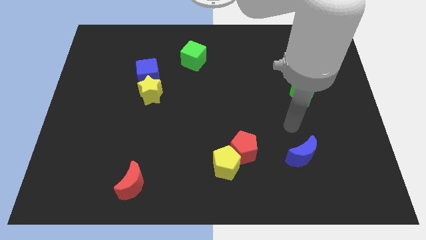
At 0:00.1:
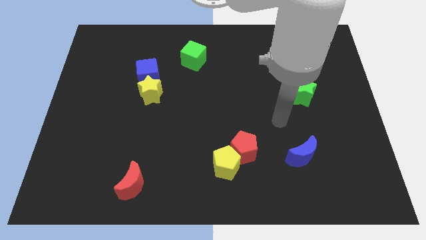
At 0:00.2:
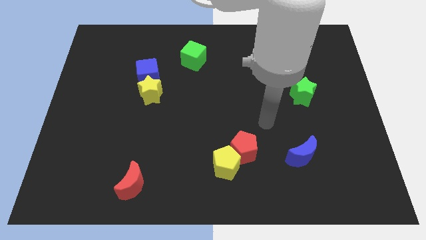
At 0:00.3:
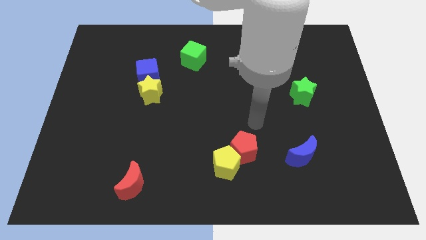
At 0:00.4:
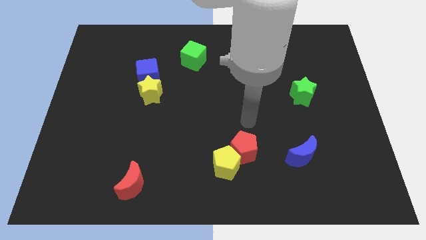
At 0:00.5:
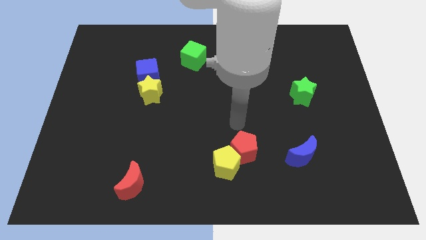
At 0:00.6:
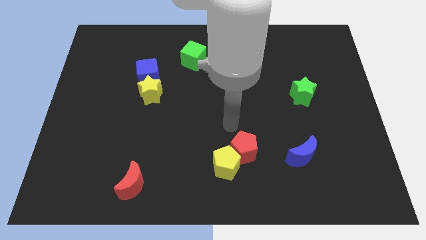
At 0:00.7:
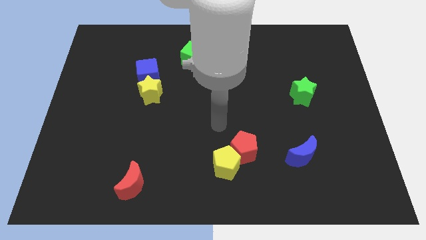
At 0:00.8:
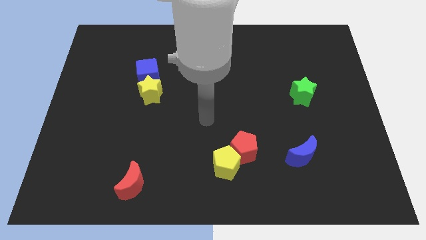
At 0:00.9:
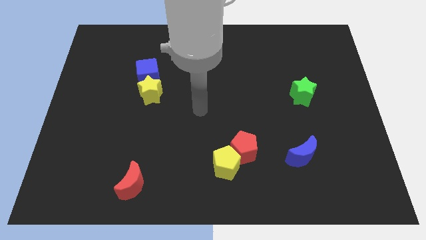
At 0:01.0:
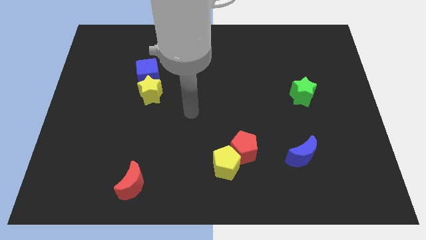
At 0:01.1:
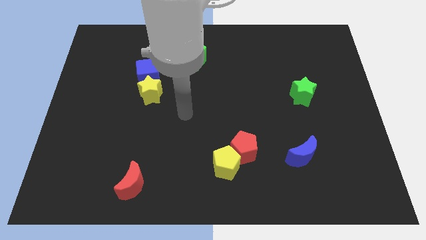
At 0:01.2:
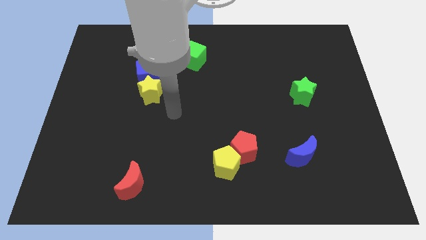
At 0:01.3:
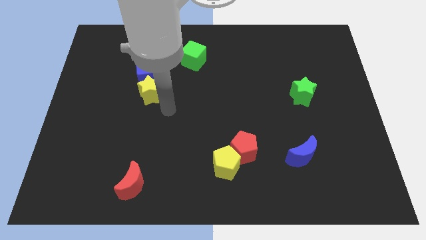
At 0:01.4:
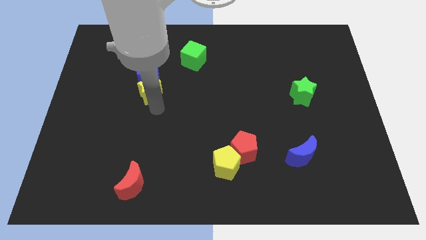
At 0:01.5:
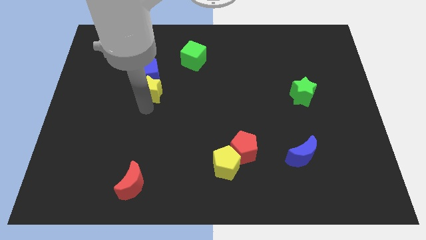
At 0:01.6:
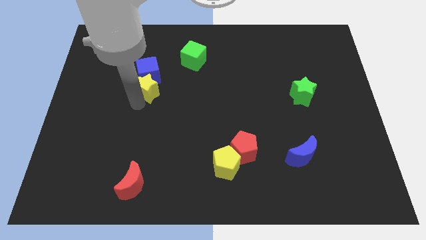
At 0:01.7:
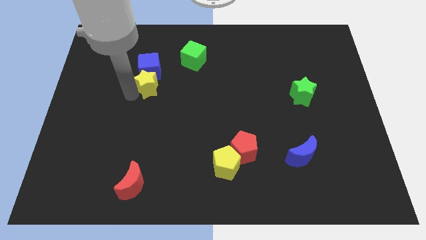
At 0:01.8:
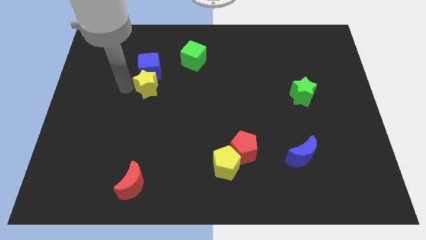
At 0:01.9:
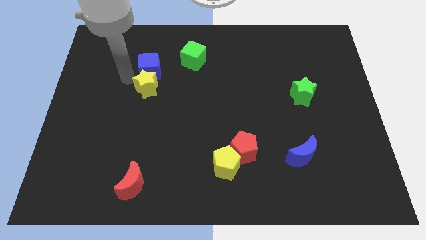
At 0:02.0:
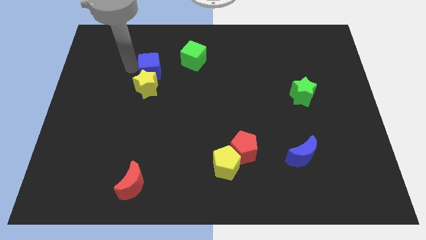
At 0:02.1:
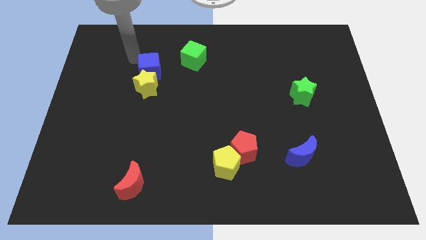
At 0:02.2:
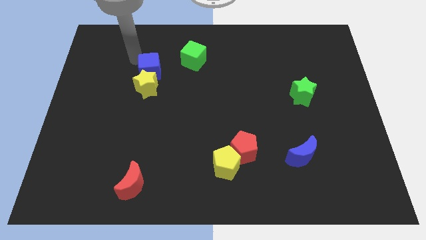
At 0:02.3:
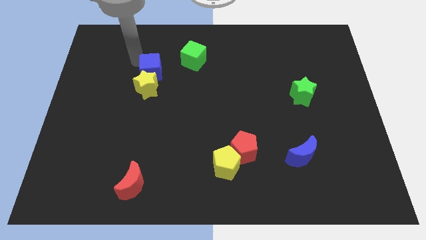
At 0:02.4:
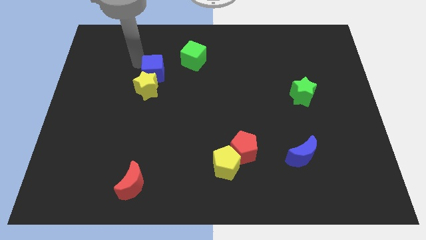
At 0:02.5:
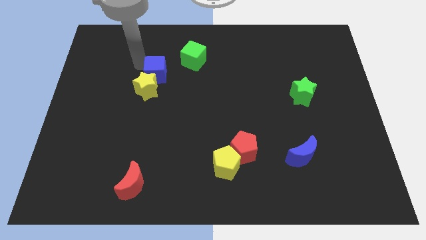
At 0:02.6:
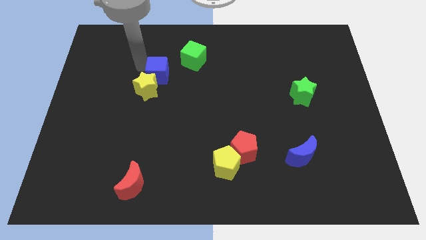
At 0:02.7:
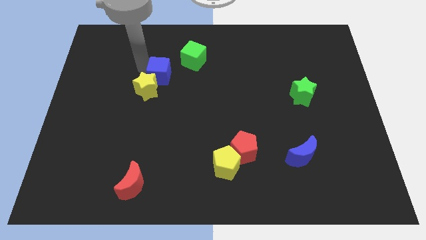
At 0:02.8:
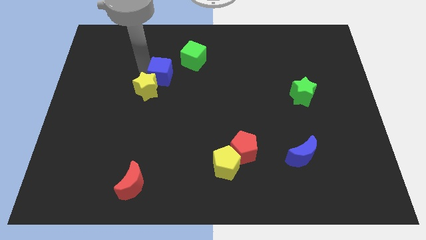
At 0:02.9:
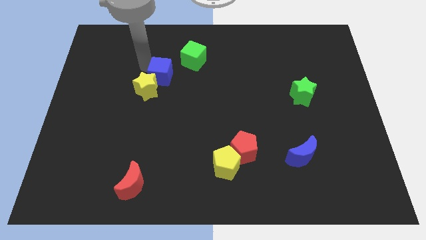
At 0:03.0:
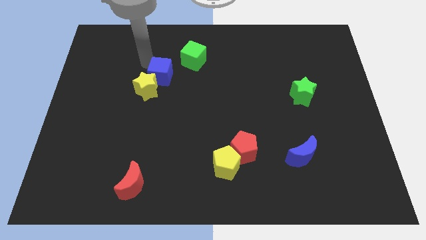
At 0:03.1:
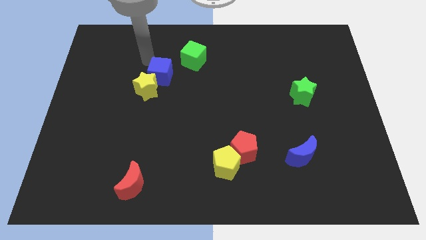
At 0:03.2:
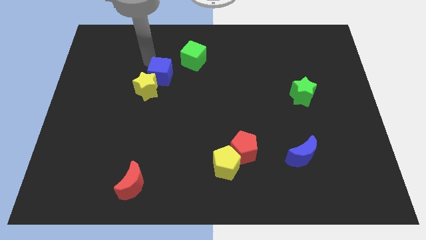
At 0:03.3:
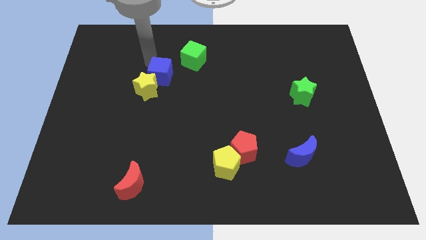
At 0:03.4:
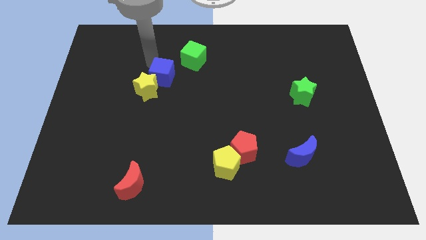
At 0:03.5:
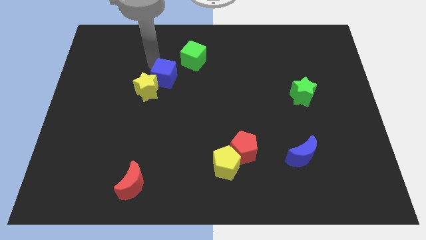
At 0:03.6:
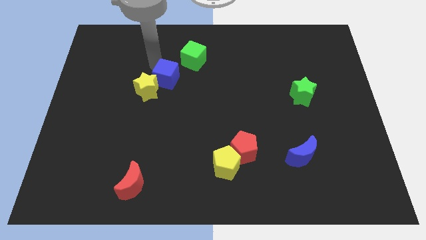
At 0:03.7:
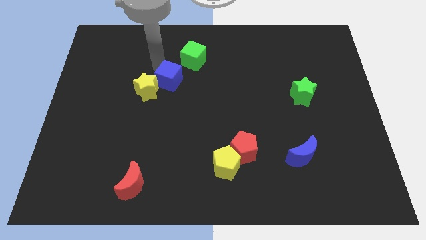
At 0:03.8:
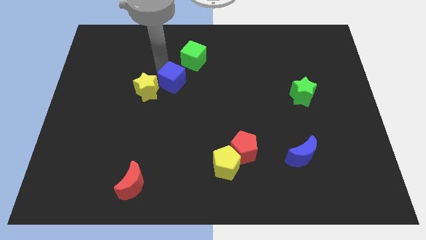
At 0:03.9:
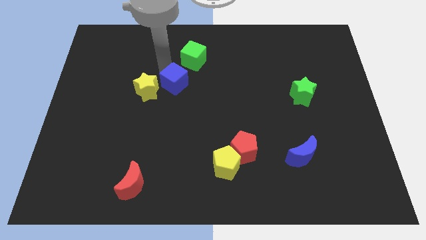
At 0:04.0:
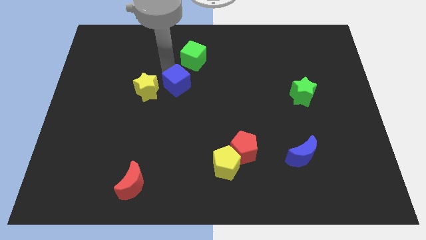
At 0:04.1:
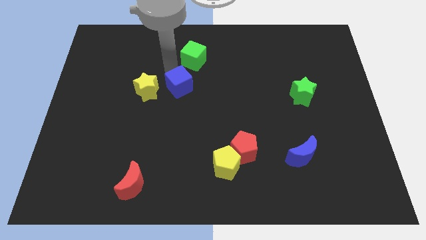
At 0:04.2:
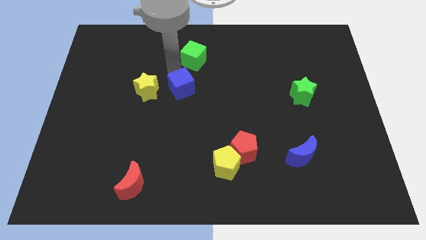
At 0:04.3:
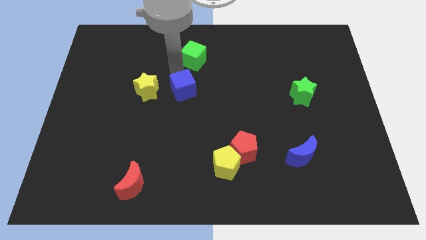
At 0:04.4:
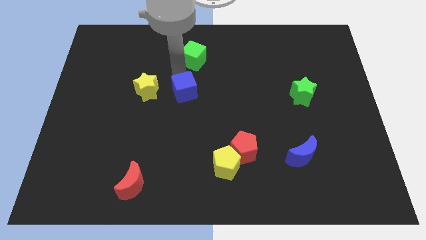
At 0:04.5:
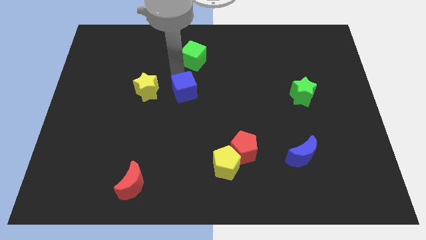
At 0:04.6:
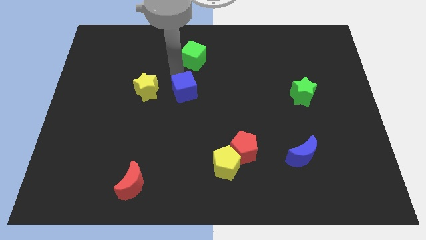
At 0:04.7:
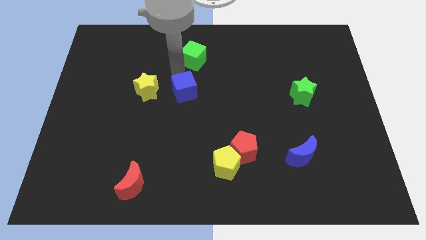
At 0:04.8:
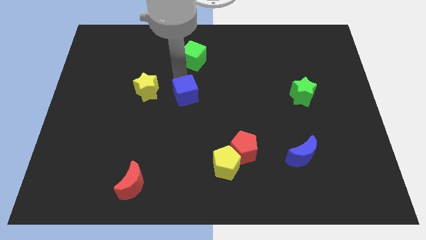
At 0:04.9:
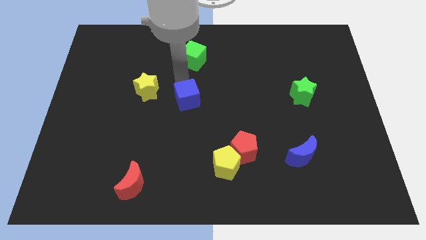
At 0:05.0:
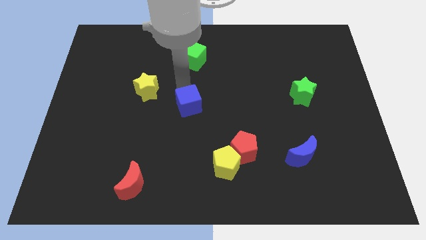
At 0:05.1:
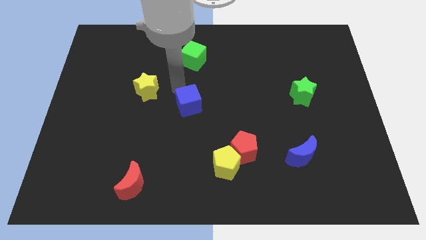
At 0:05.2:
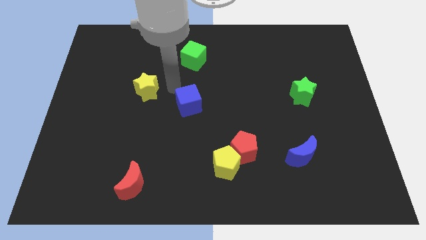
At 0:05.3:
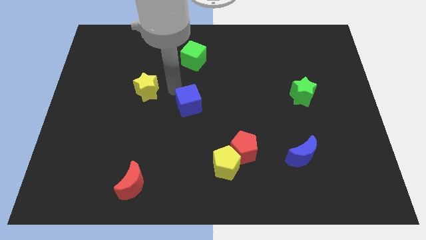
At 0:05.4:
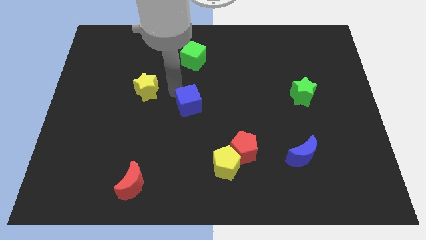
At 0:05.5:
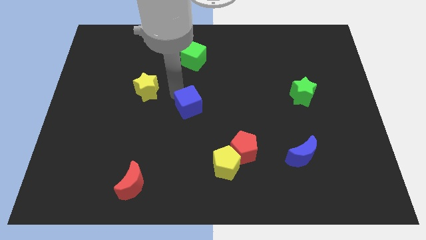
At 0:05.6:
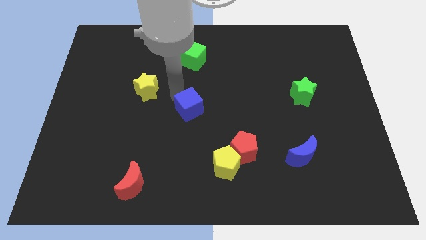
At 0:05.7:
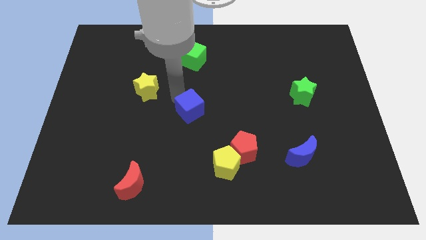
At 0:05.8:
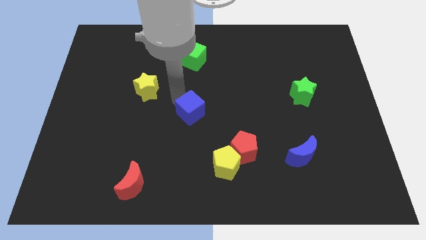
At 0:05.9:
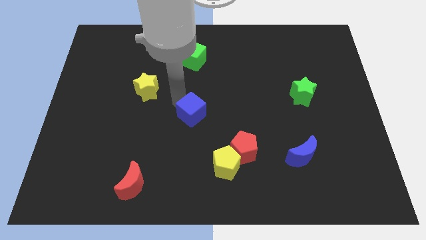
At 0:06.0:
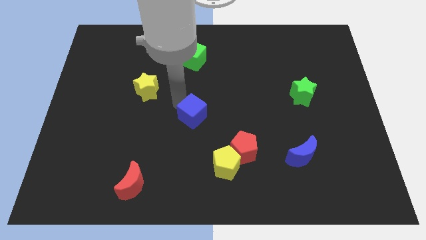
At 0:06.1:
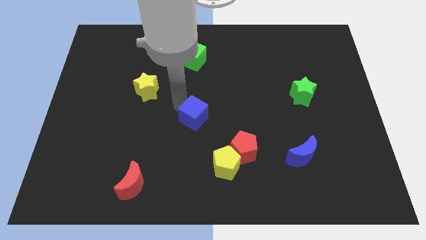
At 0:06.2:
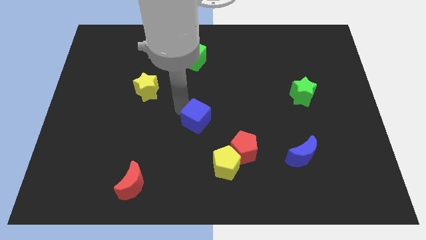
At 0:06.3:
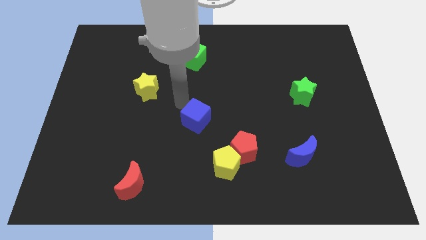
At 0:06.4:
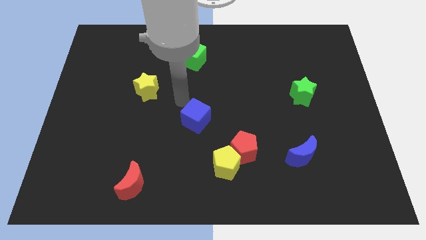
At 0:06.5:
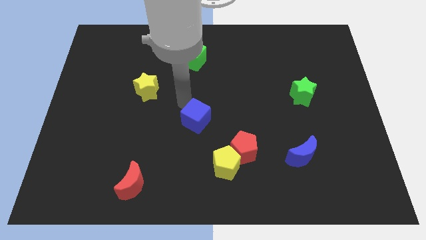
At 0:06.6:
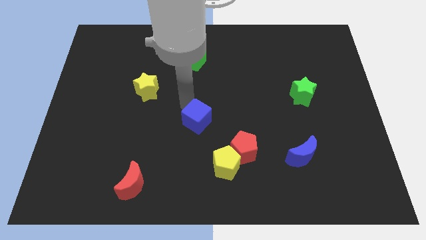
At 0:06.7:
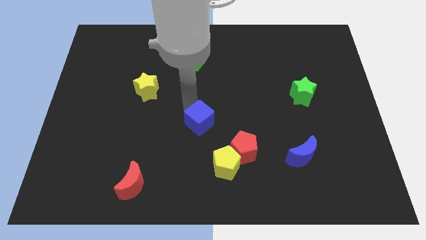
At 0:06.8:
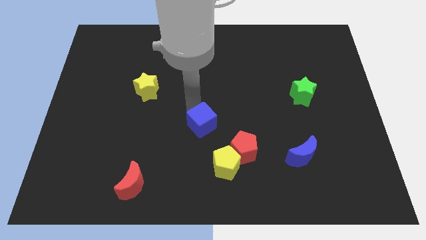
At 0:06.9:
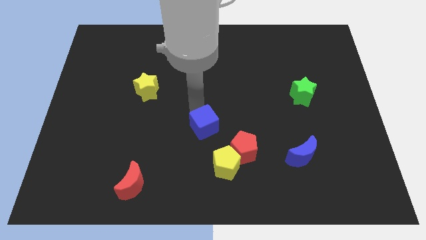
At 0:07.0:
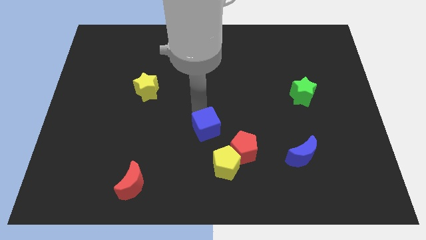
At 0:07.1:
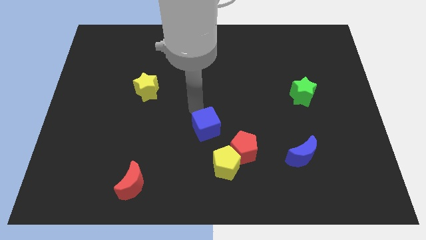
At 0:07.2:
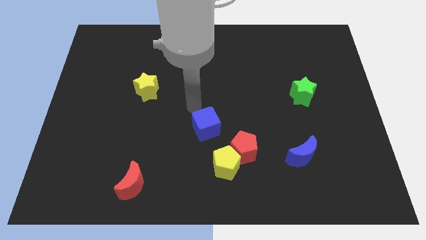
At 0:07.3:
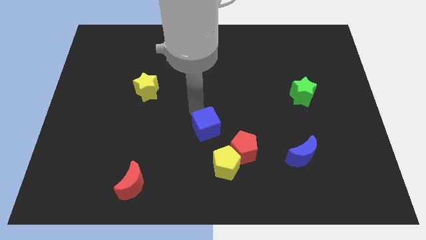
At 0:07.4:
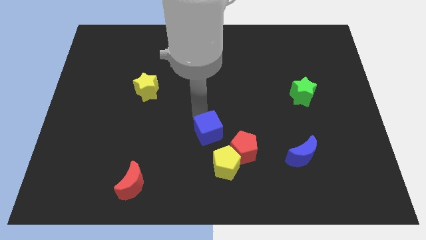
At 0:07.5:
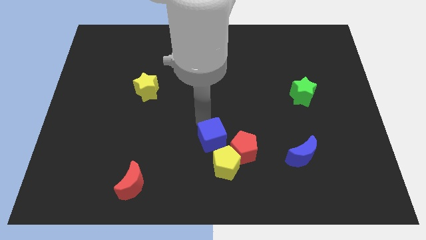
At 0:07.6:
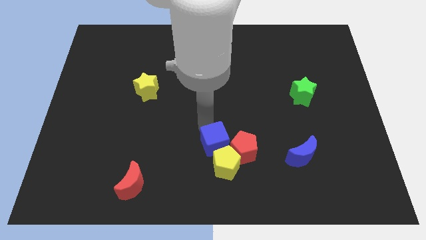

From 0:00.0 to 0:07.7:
push the blue cube close to the yellow pentagon
